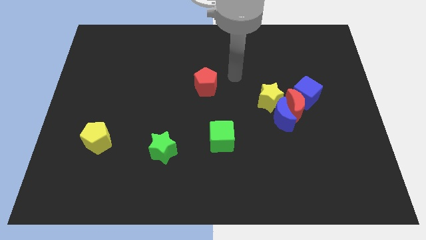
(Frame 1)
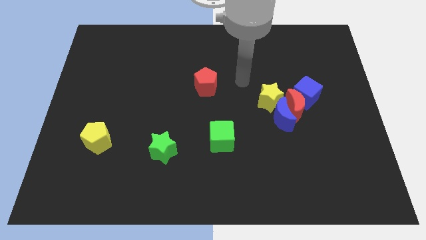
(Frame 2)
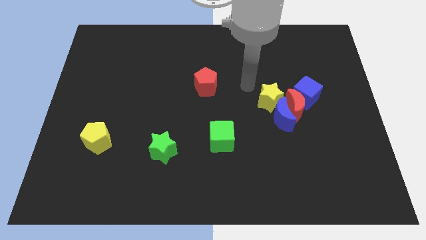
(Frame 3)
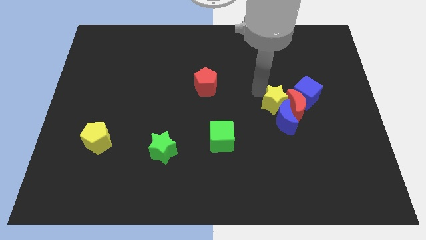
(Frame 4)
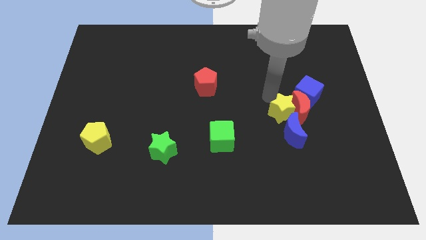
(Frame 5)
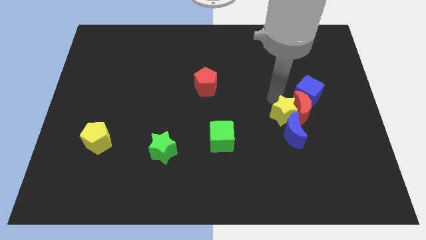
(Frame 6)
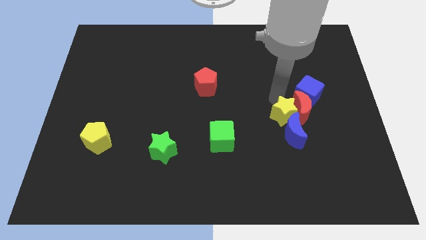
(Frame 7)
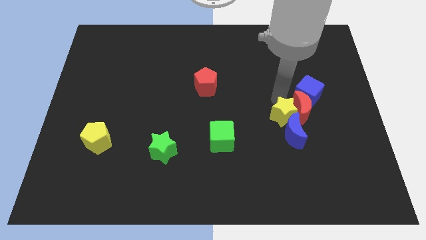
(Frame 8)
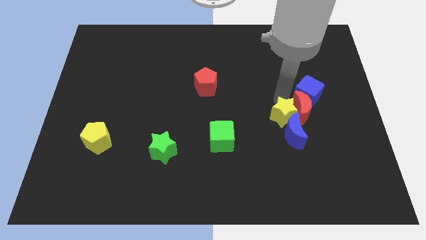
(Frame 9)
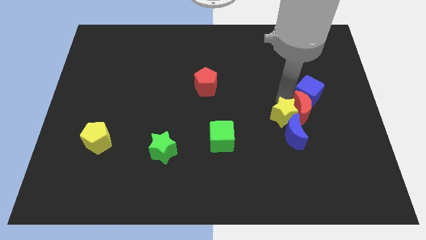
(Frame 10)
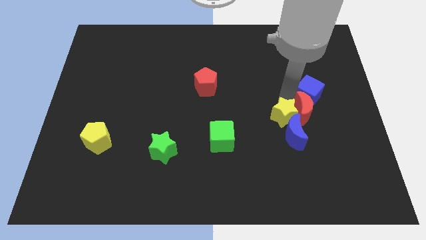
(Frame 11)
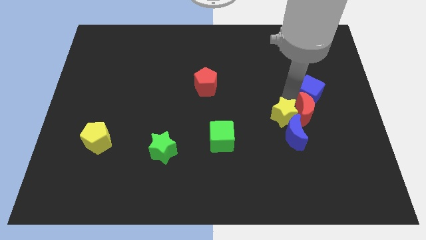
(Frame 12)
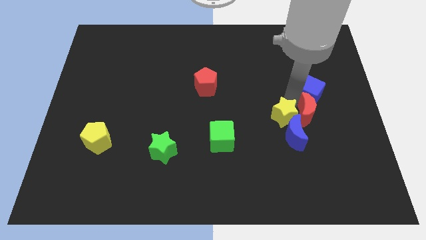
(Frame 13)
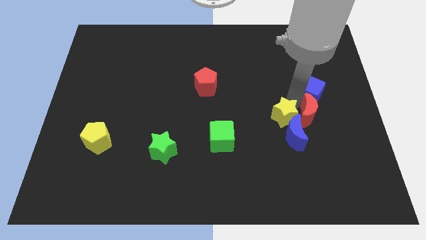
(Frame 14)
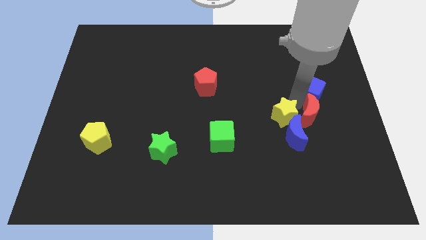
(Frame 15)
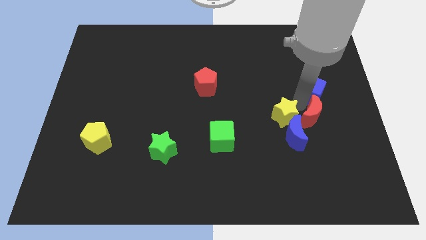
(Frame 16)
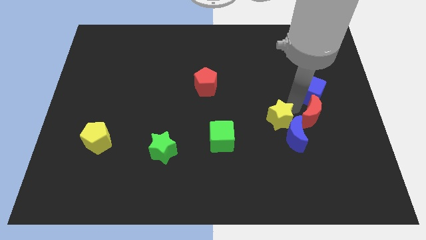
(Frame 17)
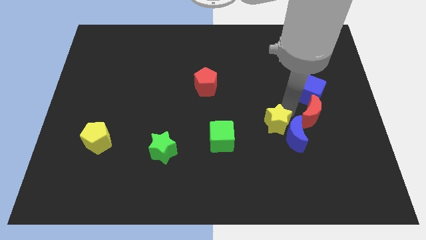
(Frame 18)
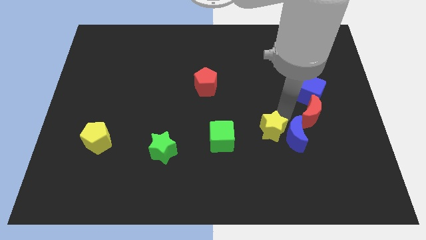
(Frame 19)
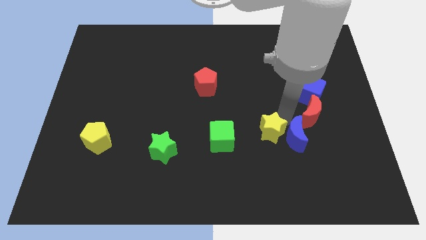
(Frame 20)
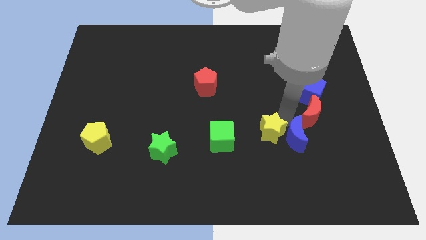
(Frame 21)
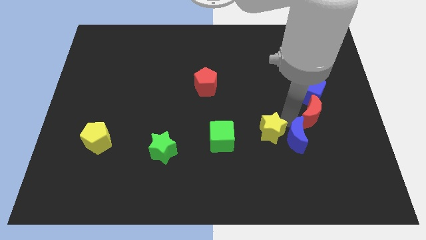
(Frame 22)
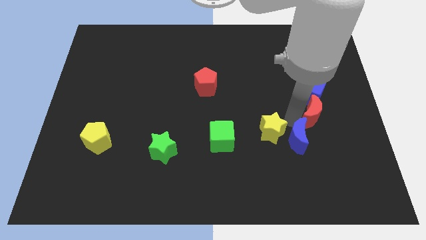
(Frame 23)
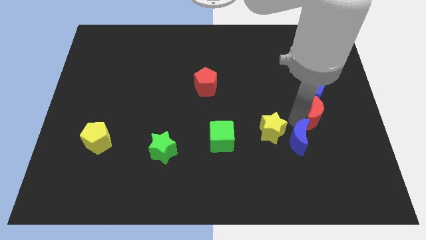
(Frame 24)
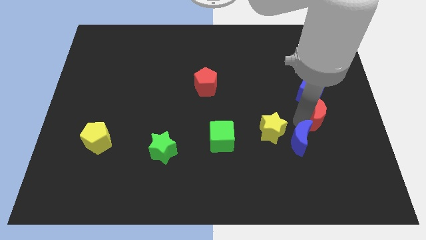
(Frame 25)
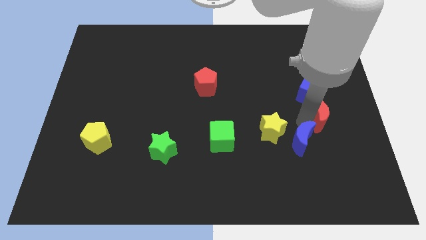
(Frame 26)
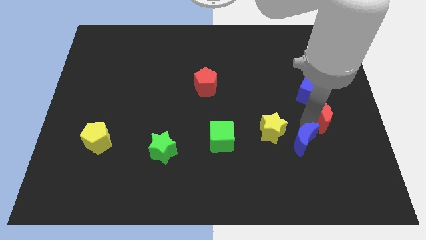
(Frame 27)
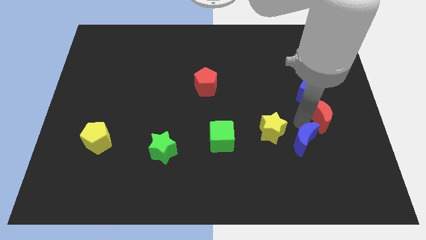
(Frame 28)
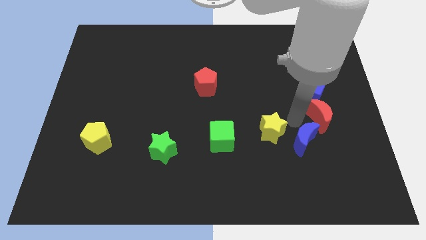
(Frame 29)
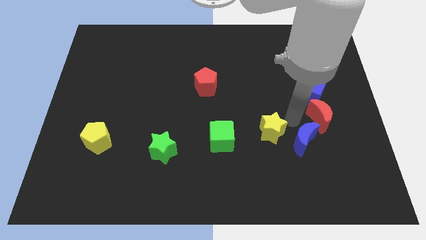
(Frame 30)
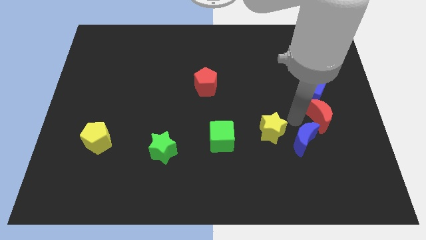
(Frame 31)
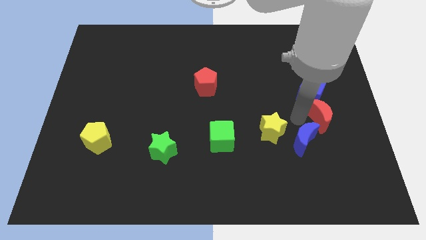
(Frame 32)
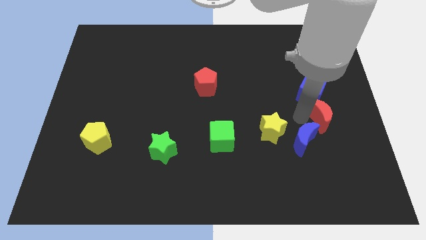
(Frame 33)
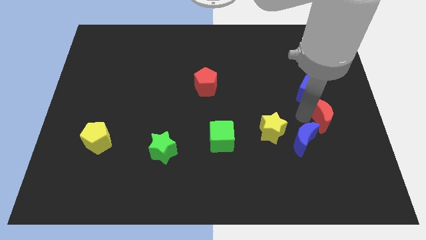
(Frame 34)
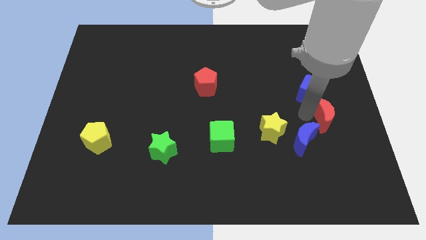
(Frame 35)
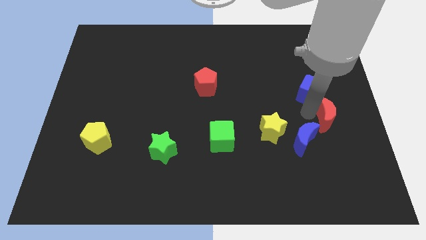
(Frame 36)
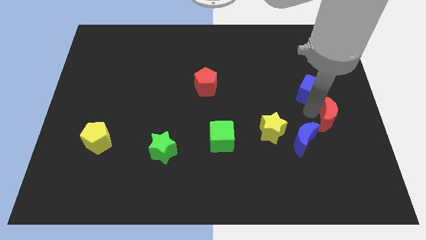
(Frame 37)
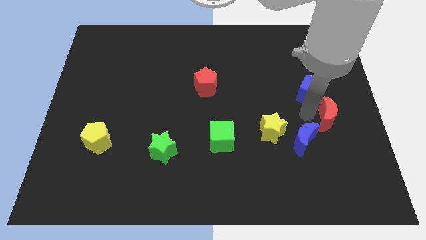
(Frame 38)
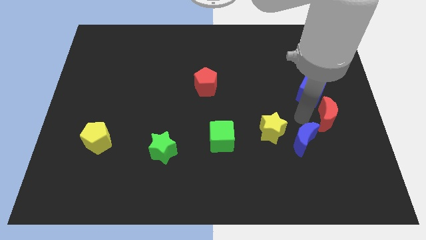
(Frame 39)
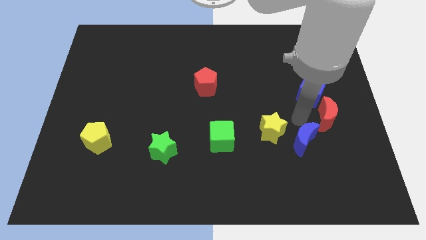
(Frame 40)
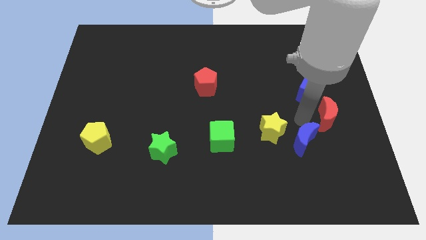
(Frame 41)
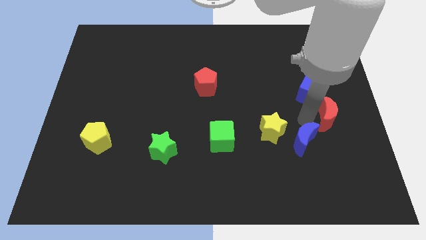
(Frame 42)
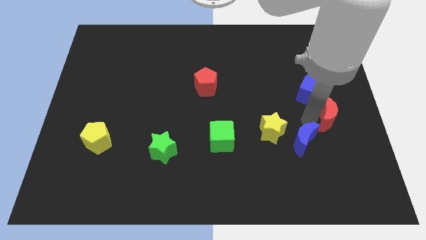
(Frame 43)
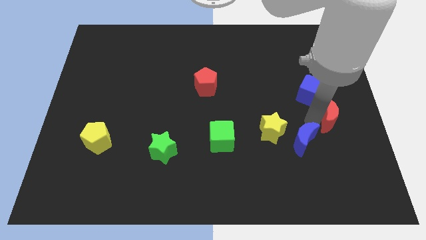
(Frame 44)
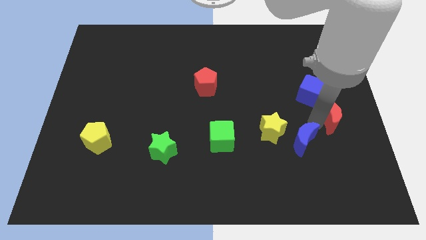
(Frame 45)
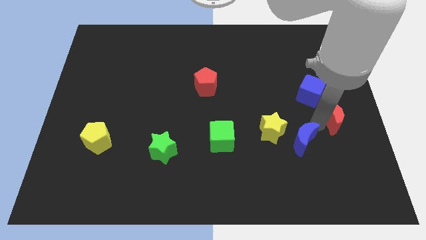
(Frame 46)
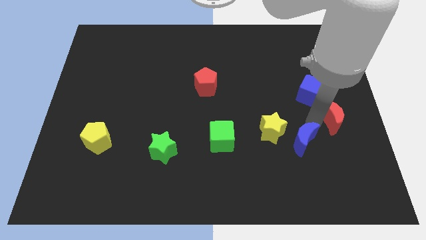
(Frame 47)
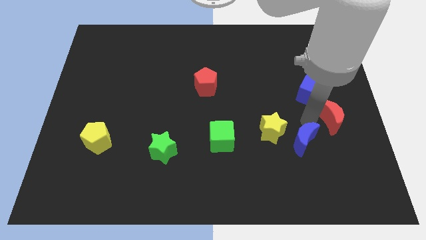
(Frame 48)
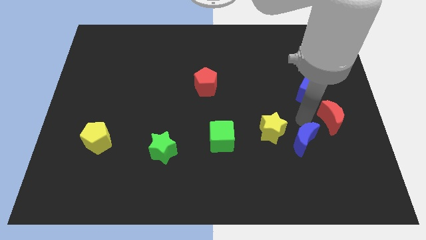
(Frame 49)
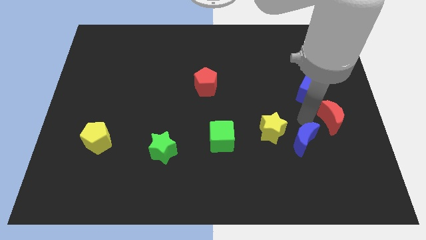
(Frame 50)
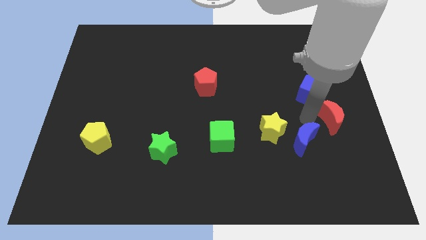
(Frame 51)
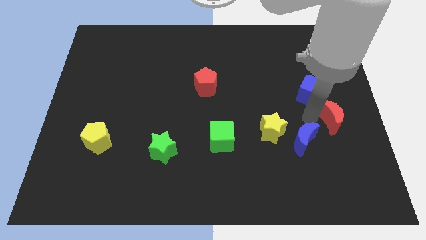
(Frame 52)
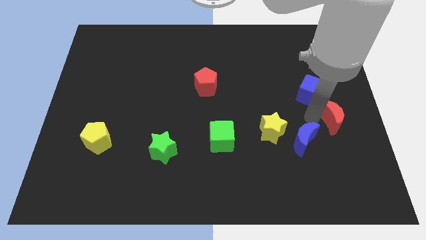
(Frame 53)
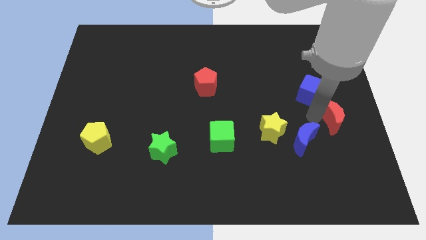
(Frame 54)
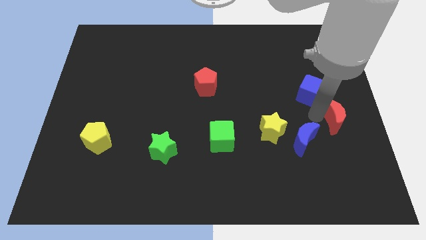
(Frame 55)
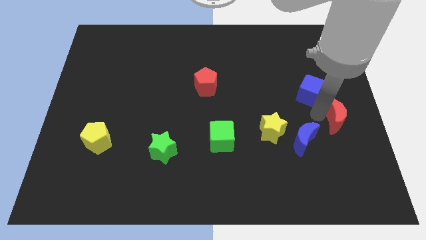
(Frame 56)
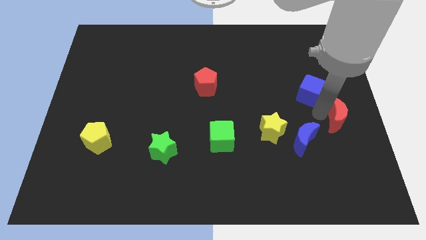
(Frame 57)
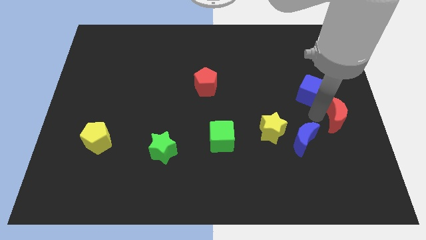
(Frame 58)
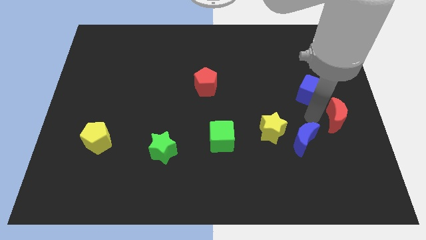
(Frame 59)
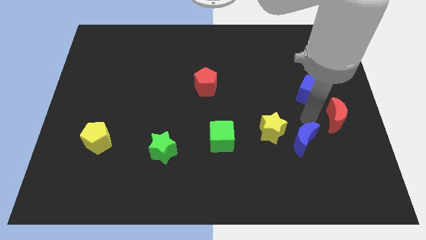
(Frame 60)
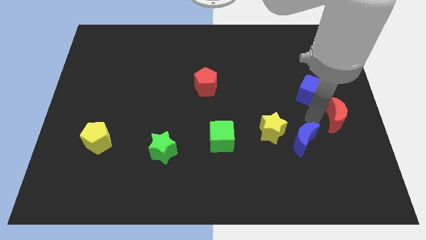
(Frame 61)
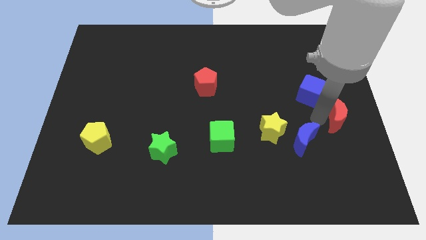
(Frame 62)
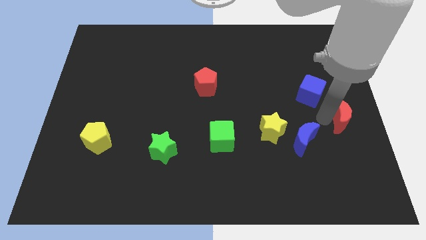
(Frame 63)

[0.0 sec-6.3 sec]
move the red moon away from the blue moon, blue cube, and yellow star

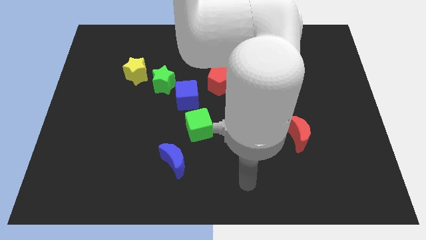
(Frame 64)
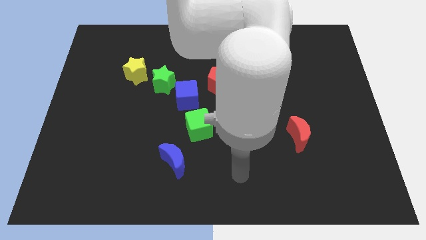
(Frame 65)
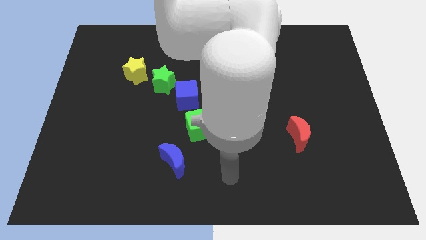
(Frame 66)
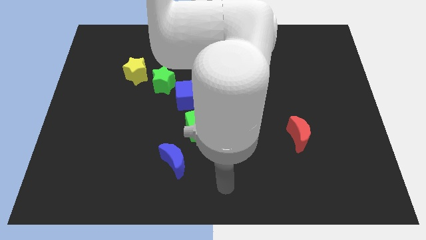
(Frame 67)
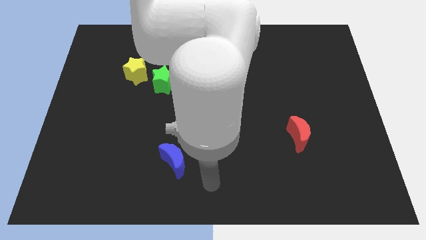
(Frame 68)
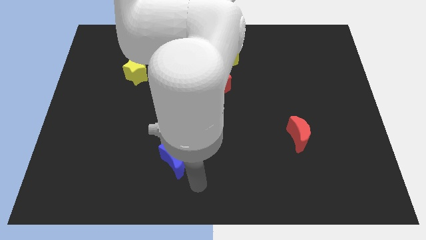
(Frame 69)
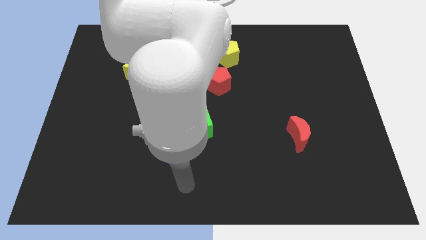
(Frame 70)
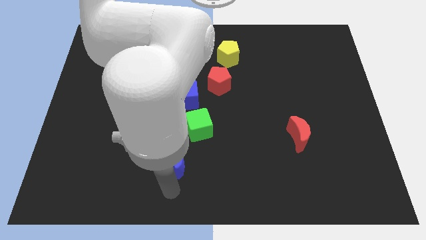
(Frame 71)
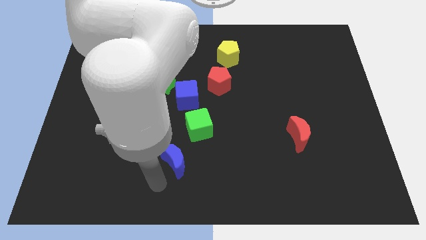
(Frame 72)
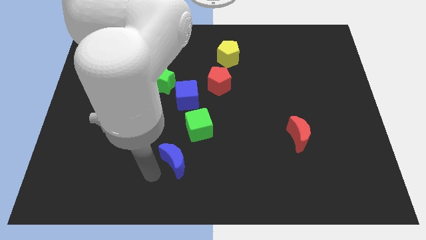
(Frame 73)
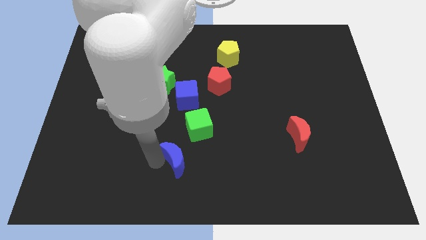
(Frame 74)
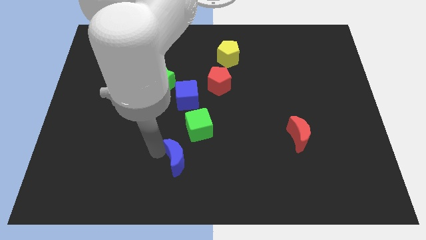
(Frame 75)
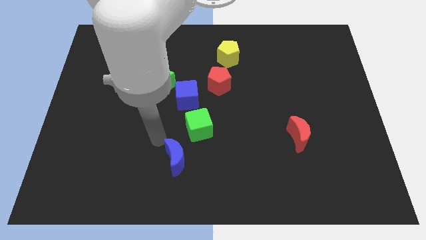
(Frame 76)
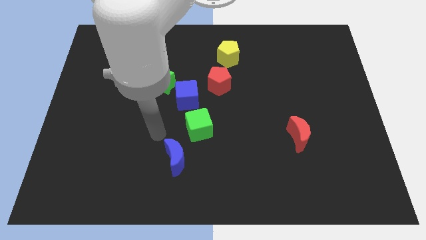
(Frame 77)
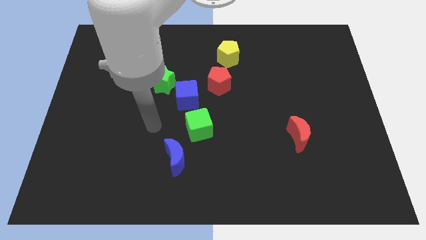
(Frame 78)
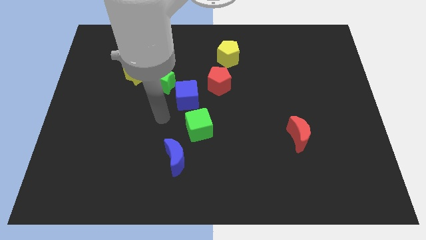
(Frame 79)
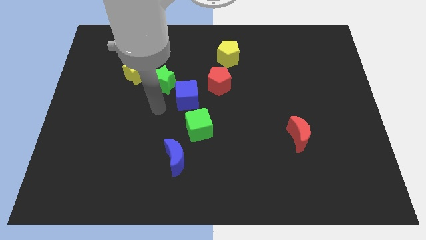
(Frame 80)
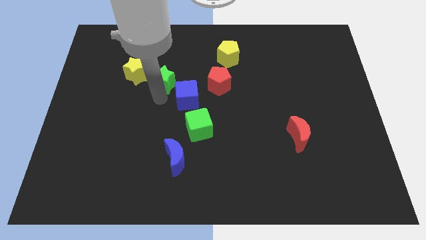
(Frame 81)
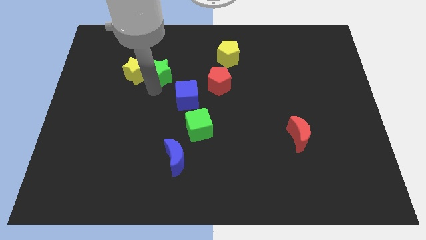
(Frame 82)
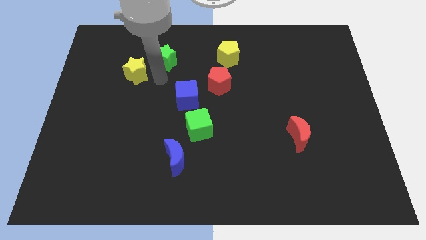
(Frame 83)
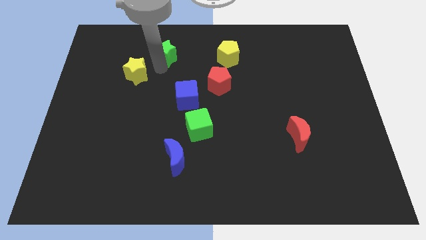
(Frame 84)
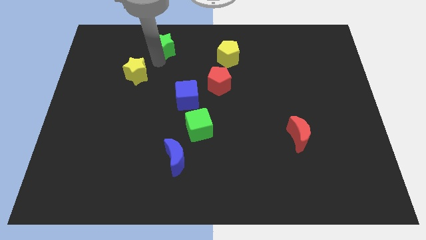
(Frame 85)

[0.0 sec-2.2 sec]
pull the yellow star apart from the green star

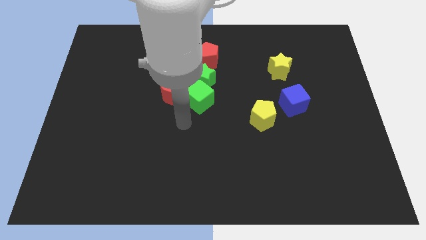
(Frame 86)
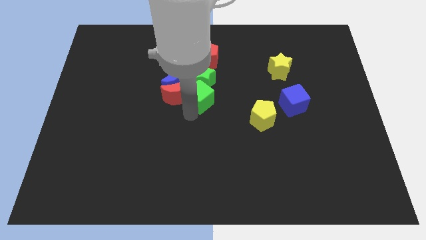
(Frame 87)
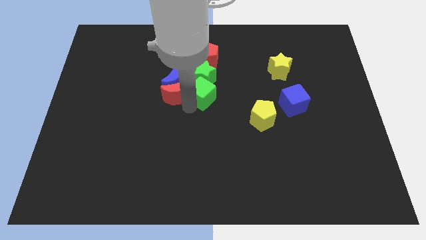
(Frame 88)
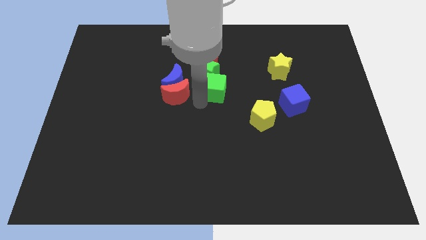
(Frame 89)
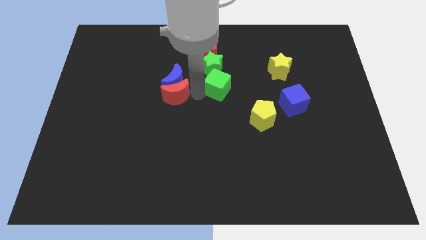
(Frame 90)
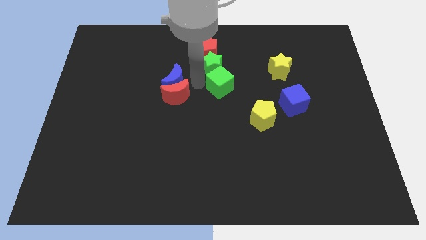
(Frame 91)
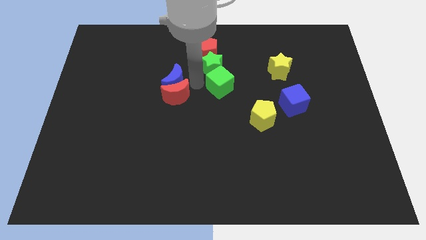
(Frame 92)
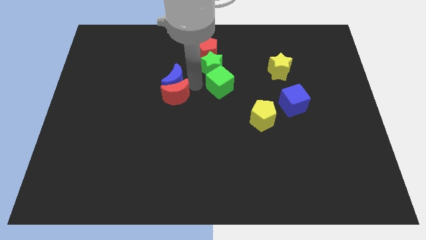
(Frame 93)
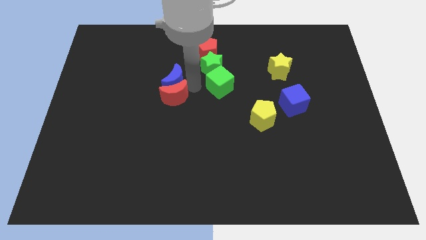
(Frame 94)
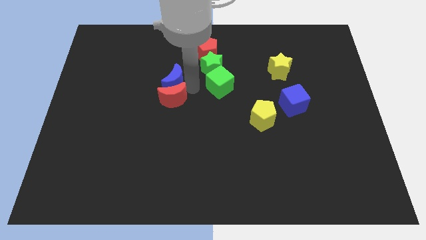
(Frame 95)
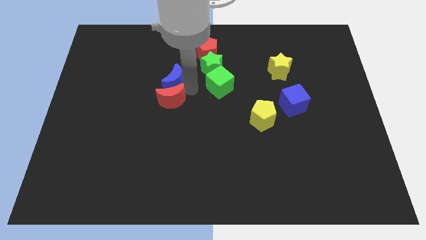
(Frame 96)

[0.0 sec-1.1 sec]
pull the red moon apart from the group

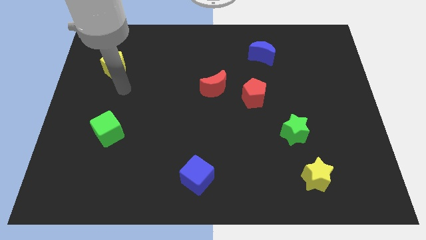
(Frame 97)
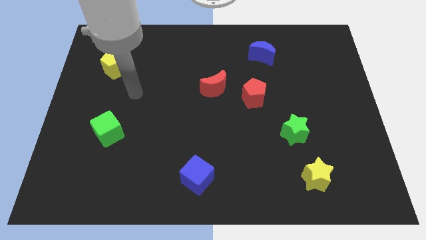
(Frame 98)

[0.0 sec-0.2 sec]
move the red moon away from the red pentagon
